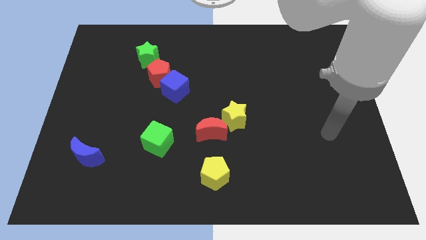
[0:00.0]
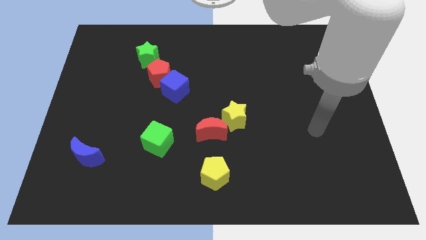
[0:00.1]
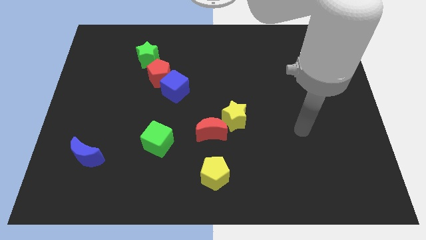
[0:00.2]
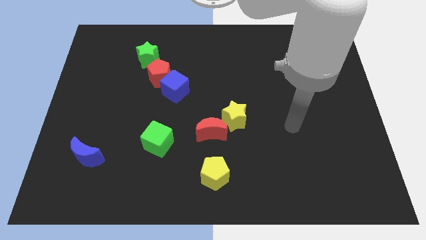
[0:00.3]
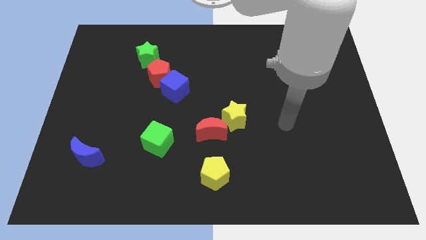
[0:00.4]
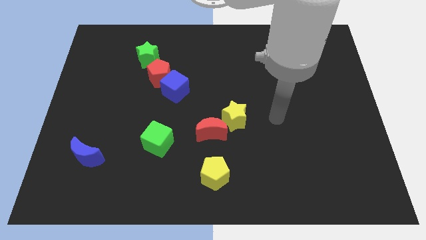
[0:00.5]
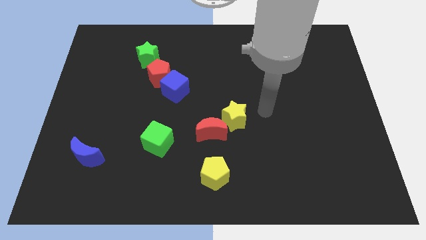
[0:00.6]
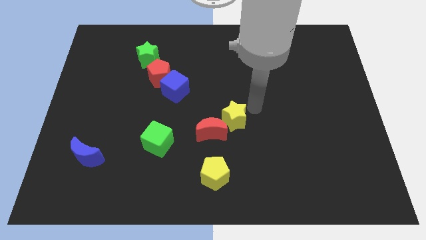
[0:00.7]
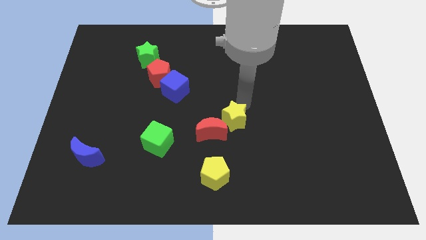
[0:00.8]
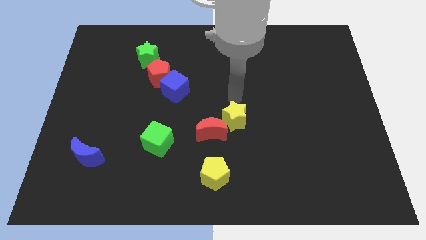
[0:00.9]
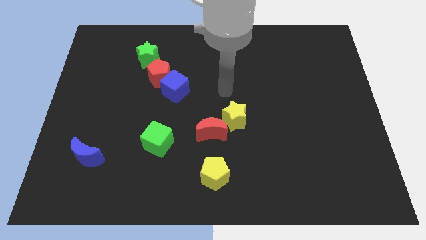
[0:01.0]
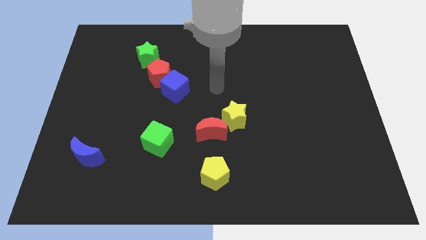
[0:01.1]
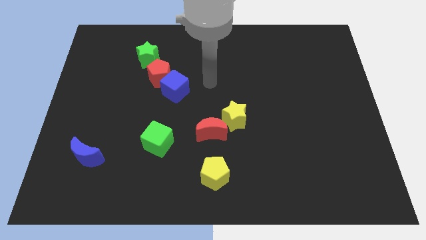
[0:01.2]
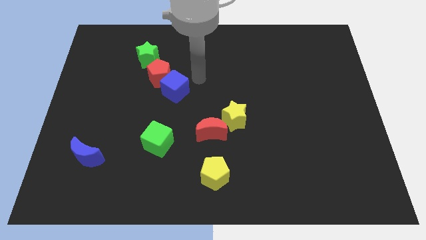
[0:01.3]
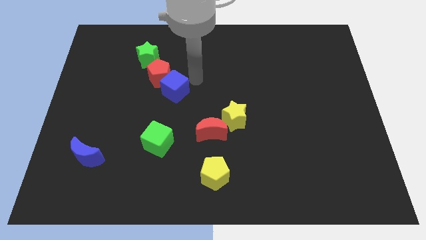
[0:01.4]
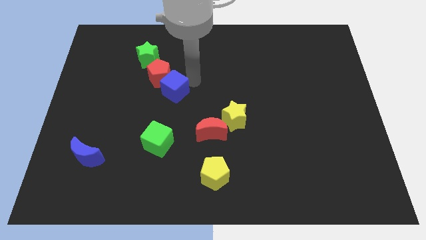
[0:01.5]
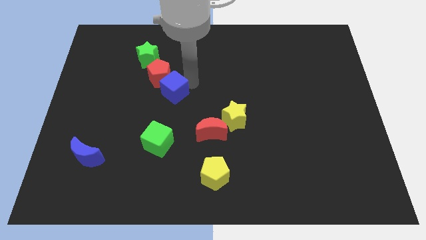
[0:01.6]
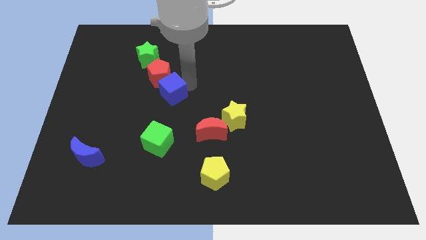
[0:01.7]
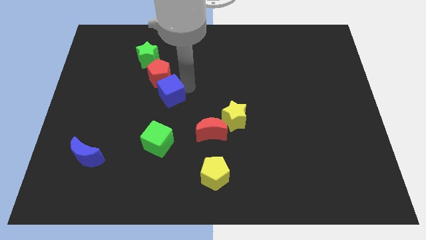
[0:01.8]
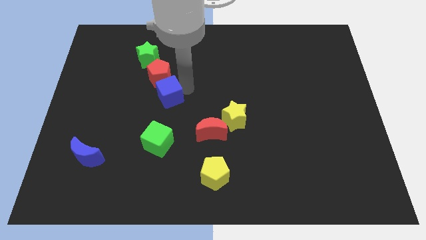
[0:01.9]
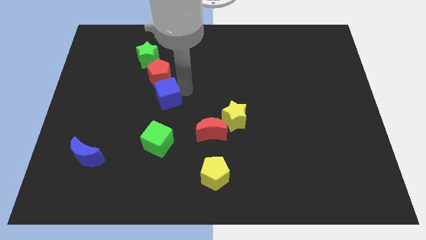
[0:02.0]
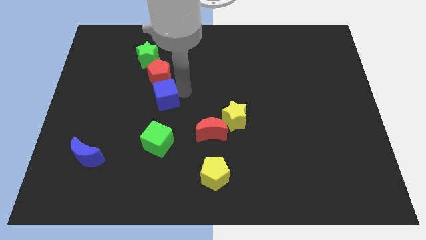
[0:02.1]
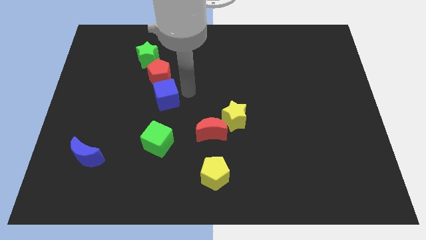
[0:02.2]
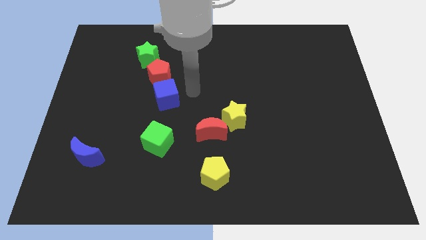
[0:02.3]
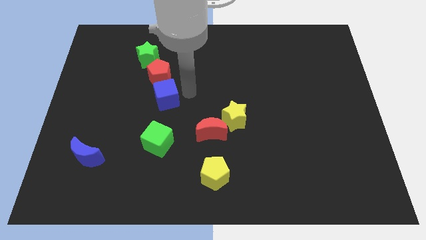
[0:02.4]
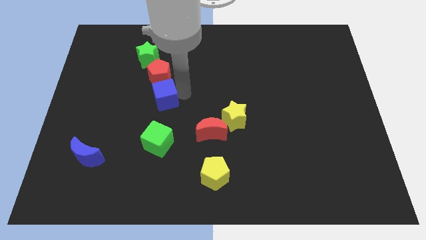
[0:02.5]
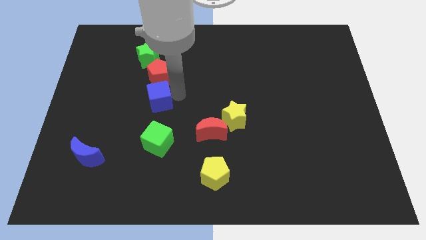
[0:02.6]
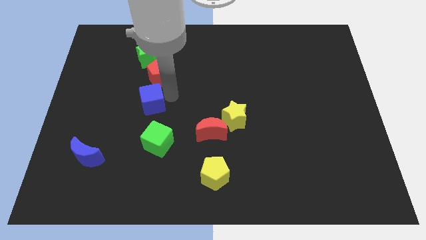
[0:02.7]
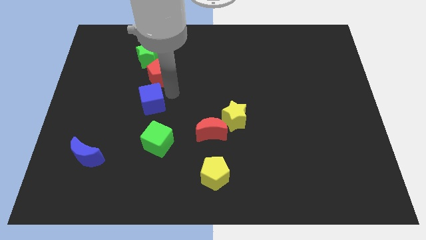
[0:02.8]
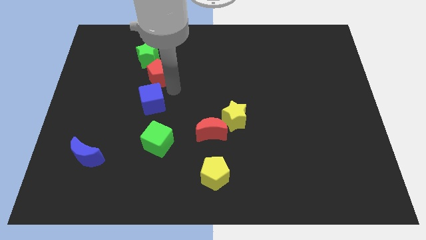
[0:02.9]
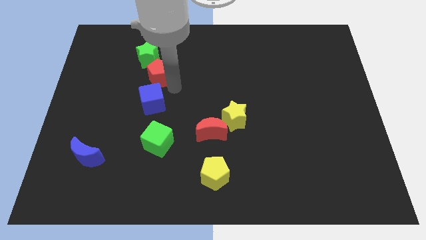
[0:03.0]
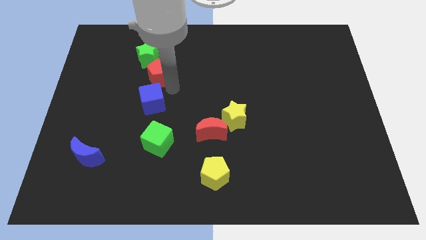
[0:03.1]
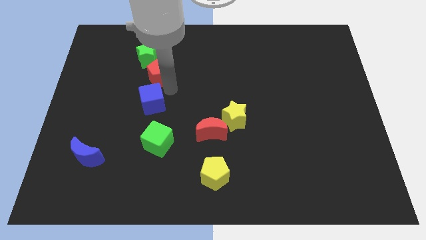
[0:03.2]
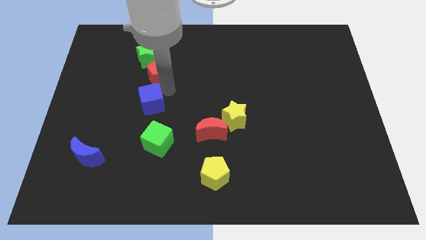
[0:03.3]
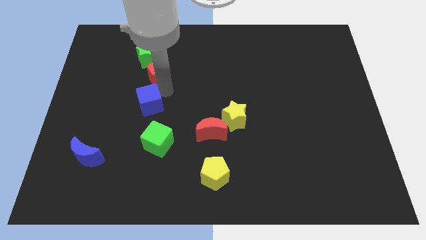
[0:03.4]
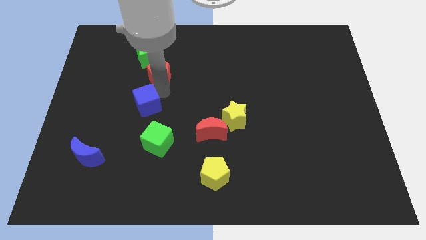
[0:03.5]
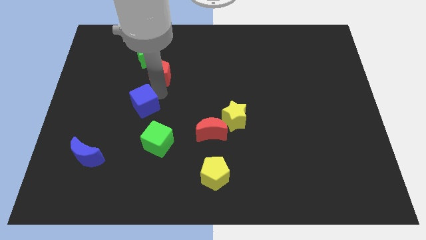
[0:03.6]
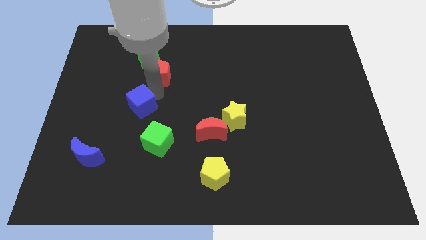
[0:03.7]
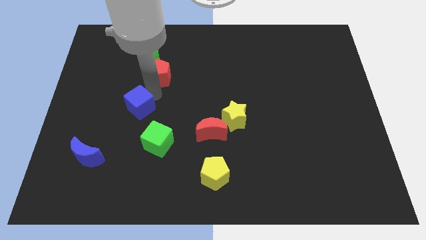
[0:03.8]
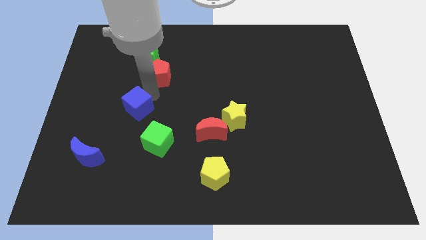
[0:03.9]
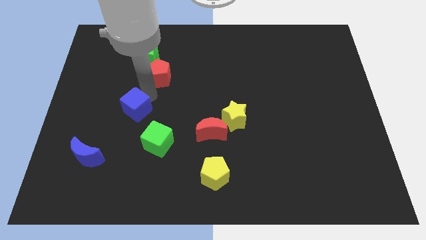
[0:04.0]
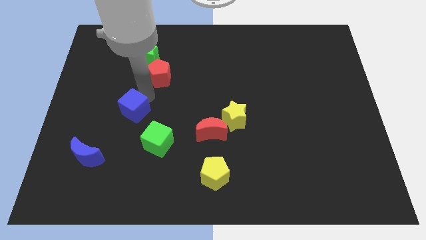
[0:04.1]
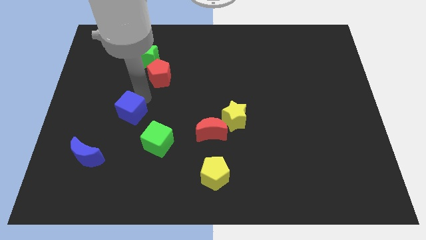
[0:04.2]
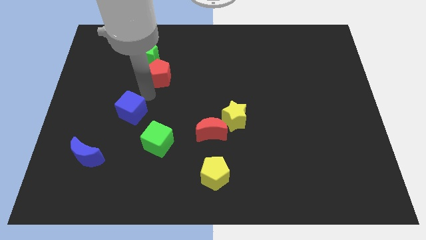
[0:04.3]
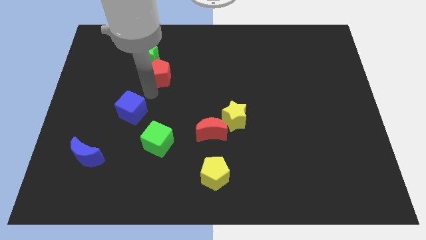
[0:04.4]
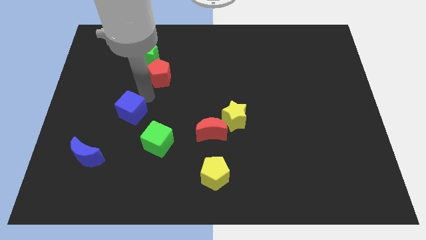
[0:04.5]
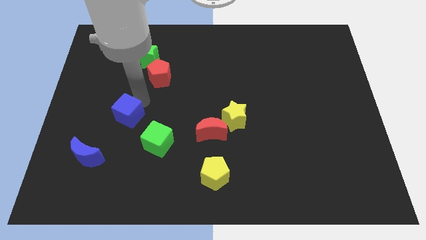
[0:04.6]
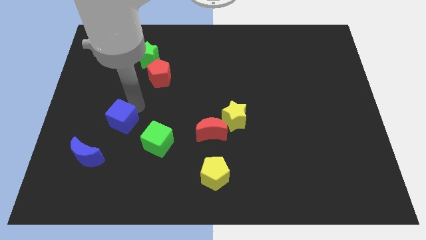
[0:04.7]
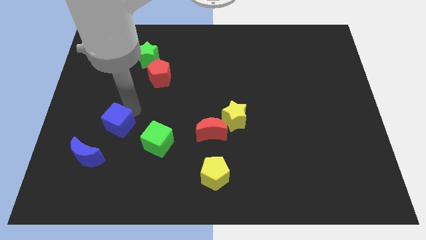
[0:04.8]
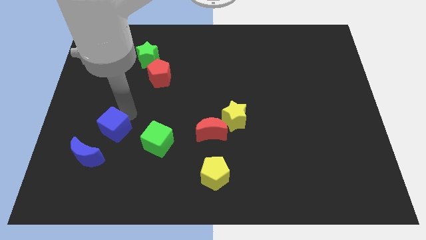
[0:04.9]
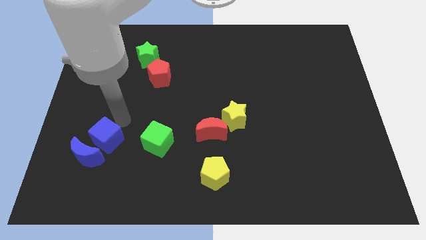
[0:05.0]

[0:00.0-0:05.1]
slide the blue cube close to the blue moon

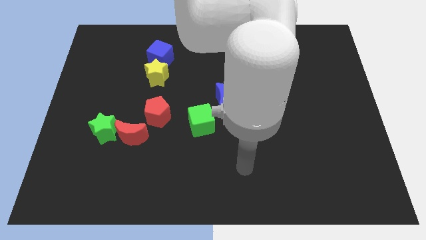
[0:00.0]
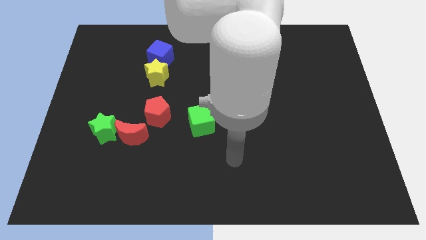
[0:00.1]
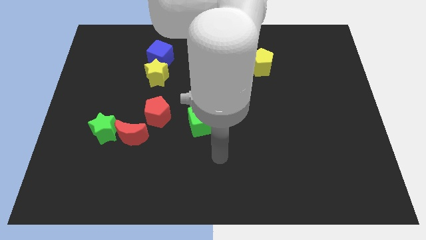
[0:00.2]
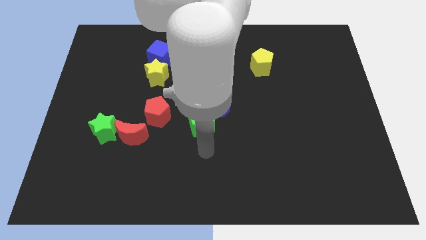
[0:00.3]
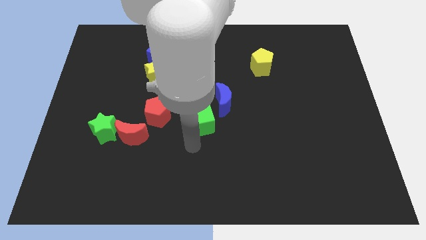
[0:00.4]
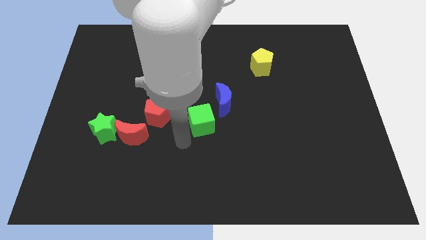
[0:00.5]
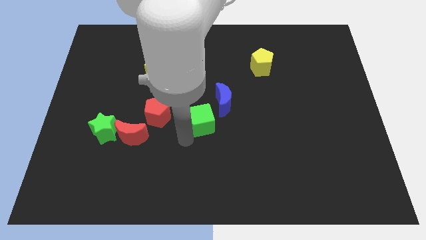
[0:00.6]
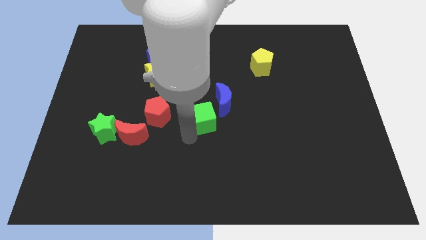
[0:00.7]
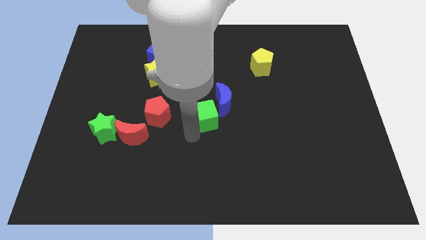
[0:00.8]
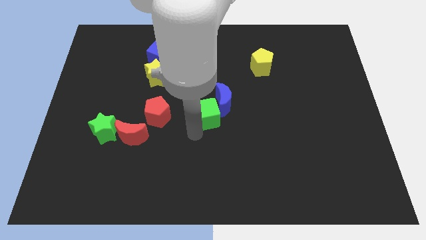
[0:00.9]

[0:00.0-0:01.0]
slide the green cube to the blue moon
